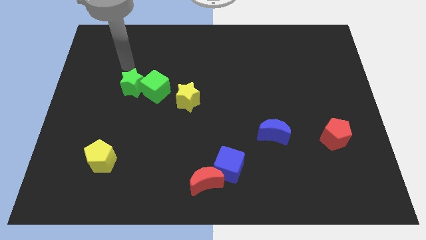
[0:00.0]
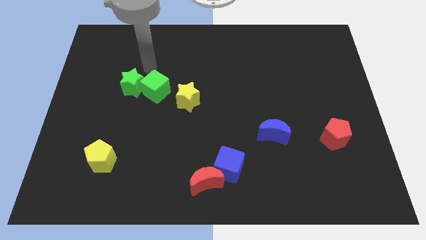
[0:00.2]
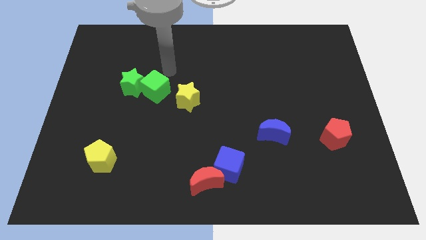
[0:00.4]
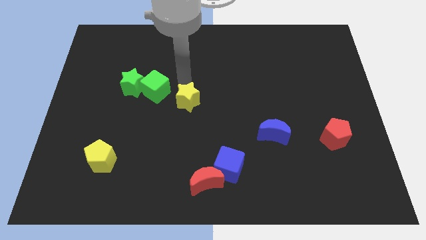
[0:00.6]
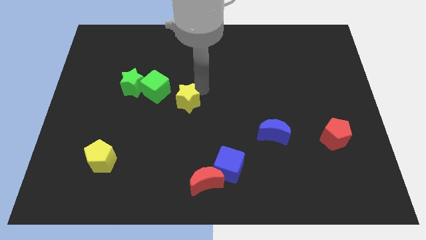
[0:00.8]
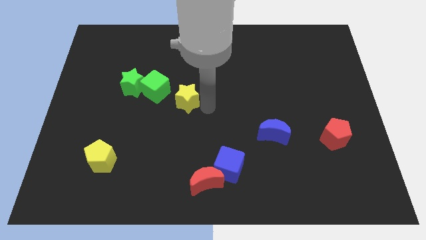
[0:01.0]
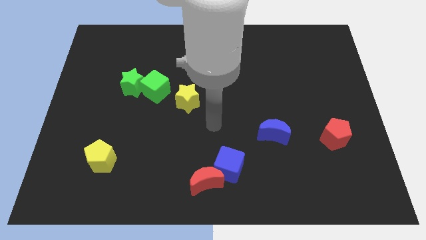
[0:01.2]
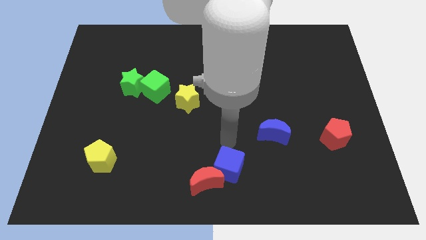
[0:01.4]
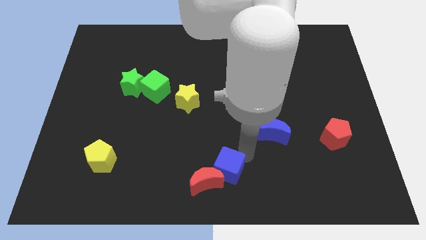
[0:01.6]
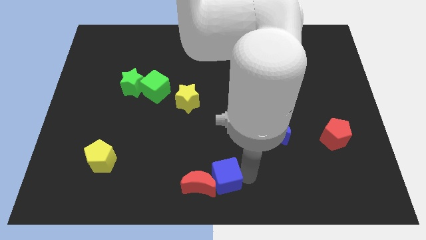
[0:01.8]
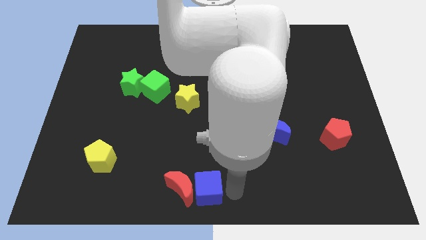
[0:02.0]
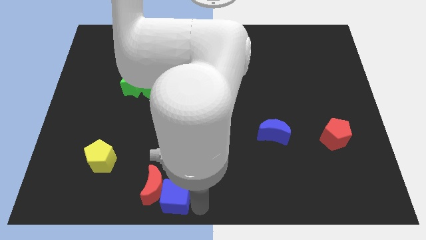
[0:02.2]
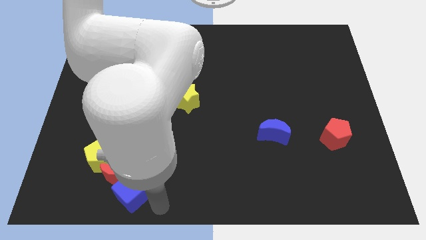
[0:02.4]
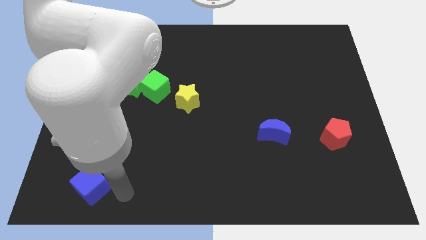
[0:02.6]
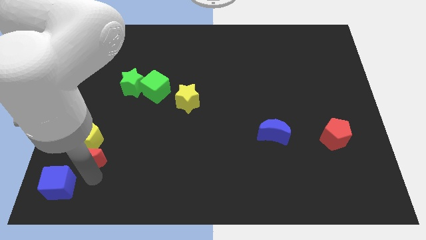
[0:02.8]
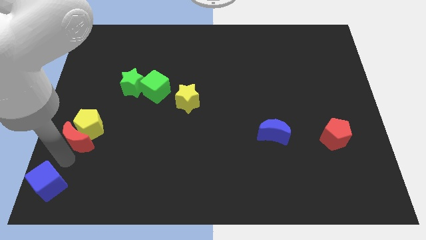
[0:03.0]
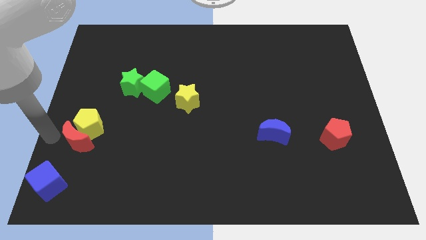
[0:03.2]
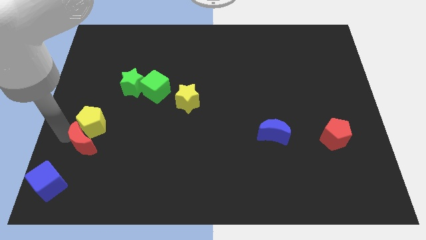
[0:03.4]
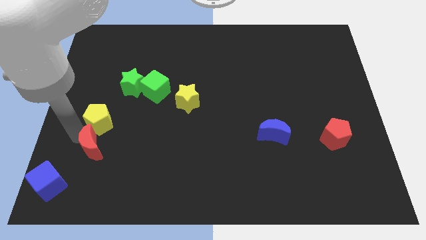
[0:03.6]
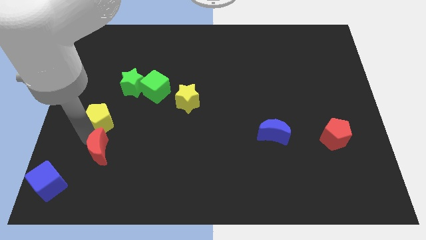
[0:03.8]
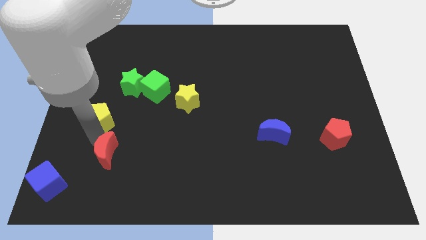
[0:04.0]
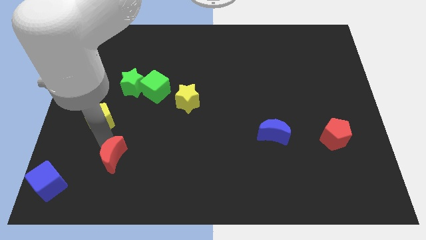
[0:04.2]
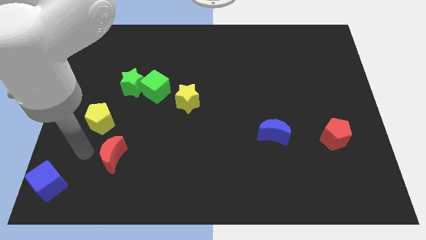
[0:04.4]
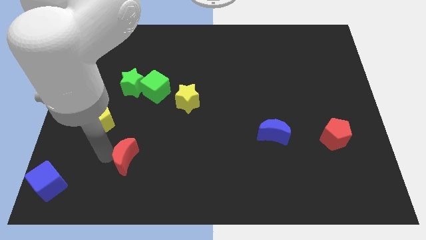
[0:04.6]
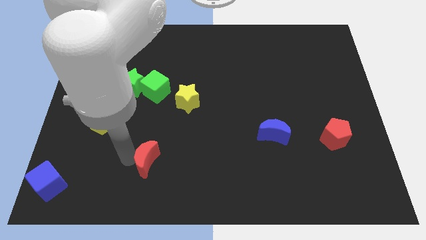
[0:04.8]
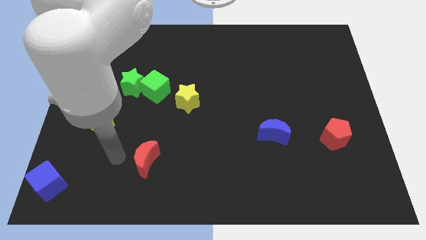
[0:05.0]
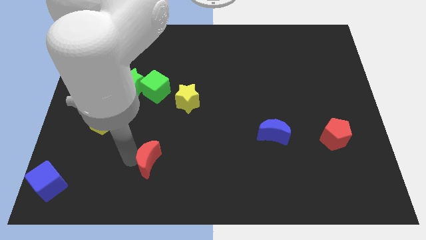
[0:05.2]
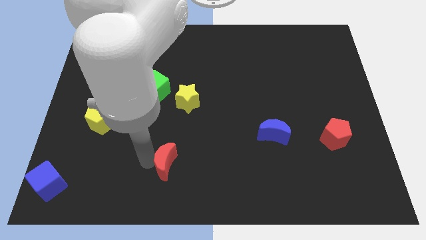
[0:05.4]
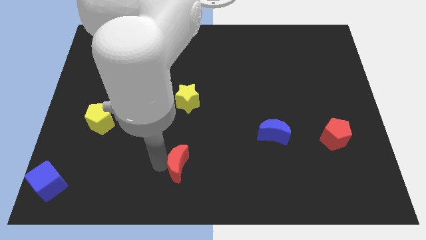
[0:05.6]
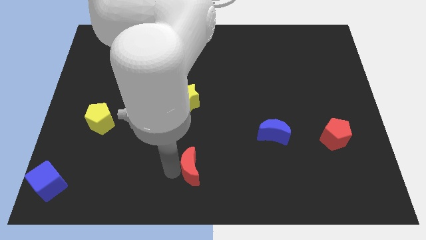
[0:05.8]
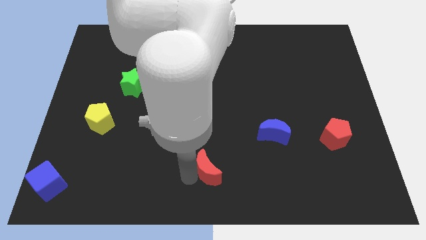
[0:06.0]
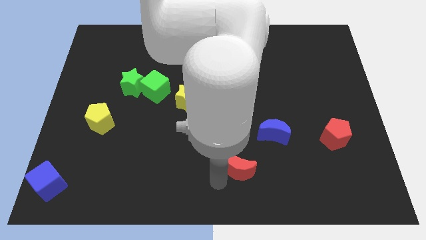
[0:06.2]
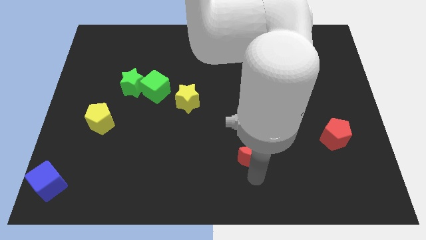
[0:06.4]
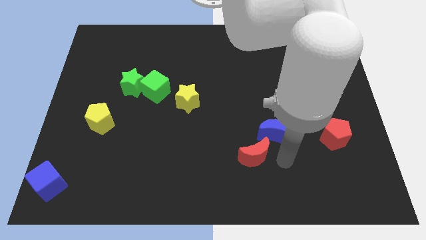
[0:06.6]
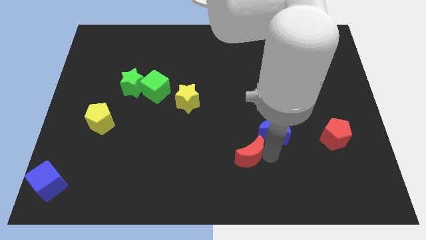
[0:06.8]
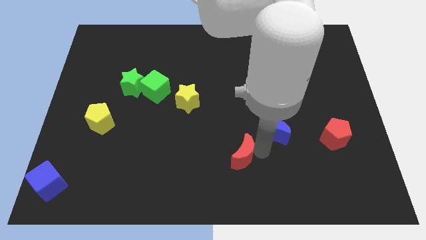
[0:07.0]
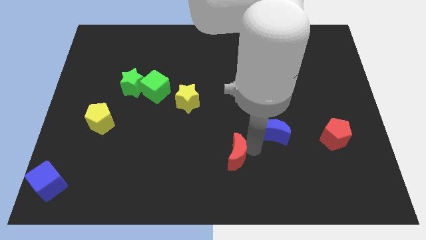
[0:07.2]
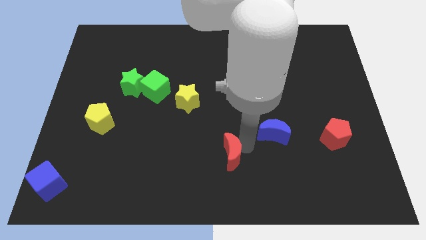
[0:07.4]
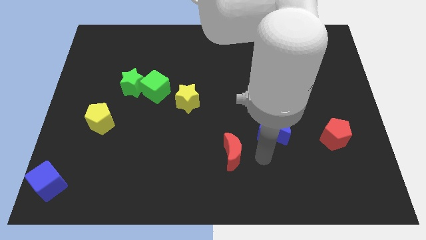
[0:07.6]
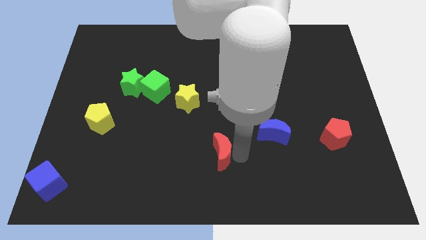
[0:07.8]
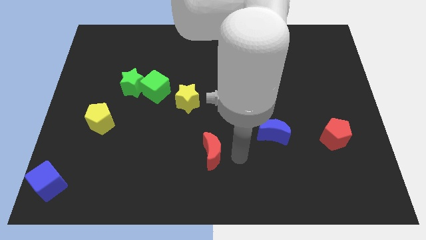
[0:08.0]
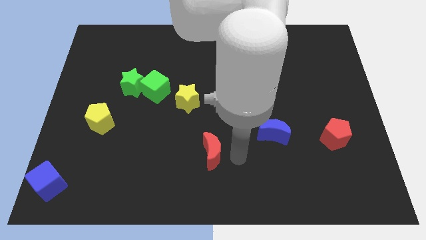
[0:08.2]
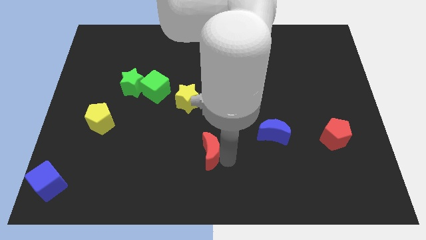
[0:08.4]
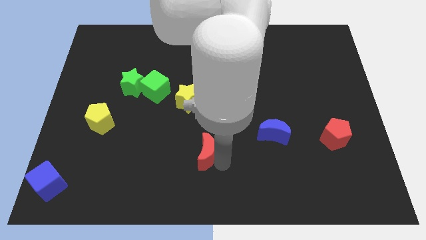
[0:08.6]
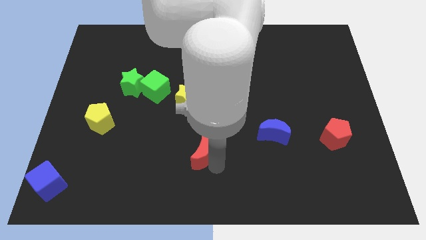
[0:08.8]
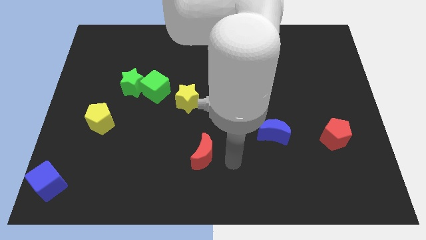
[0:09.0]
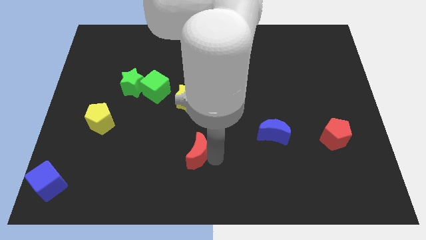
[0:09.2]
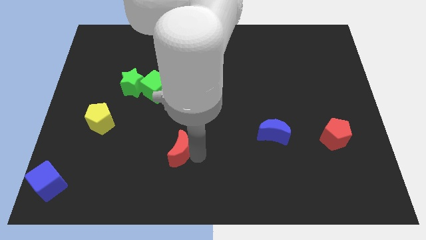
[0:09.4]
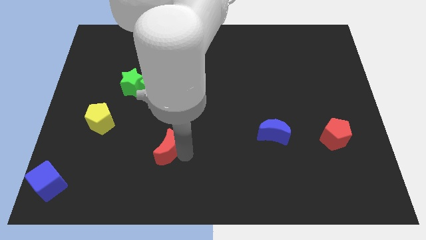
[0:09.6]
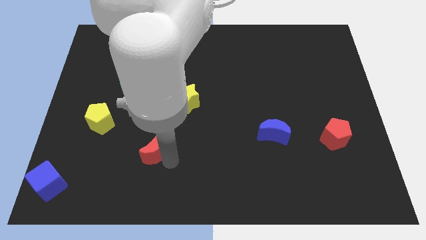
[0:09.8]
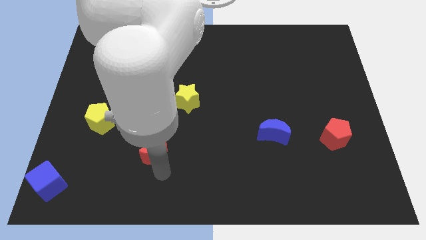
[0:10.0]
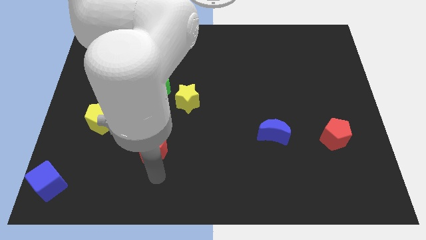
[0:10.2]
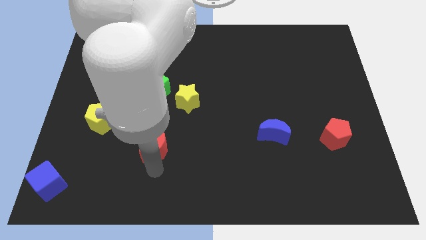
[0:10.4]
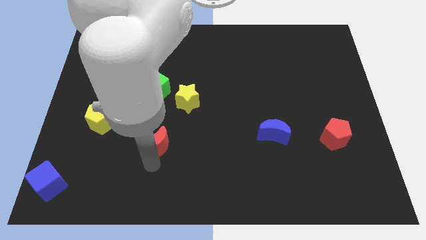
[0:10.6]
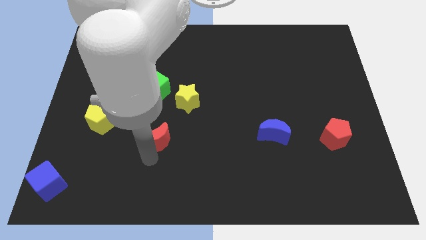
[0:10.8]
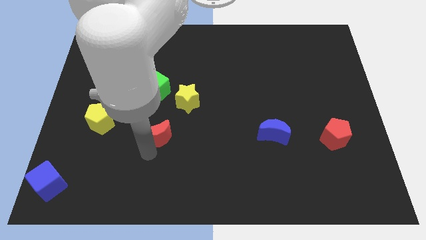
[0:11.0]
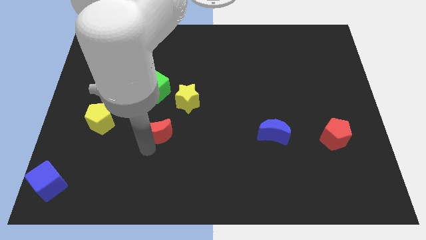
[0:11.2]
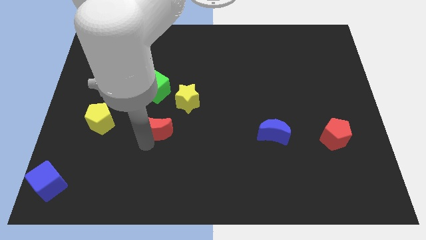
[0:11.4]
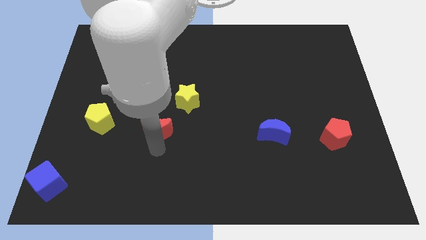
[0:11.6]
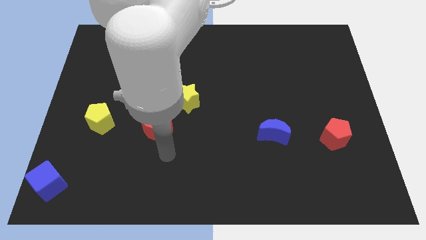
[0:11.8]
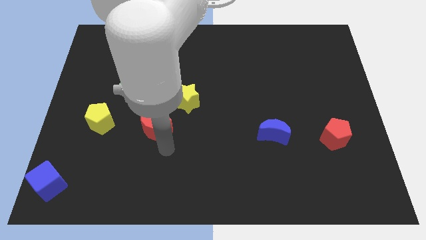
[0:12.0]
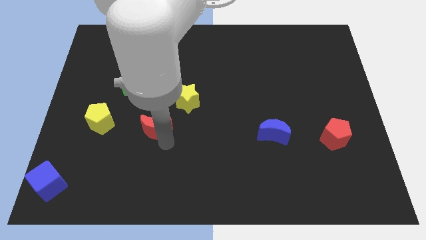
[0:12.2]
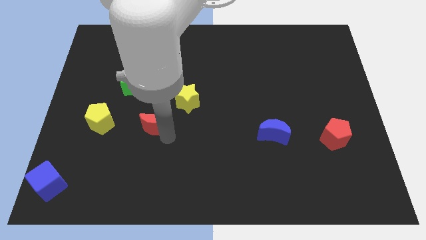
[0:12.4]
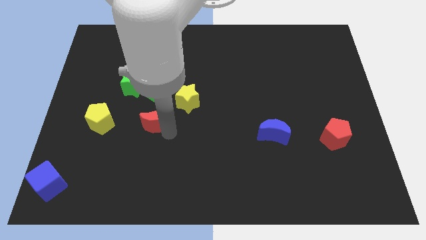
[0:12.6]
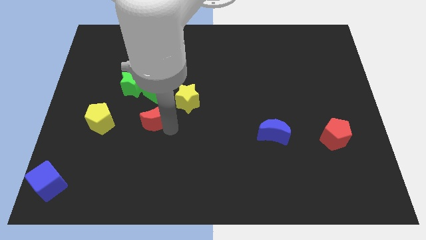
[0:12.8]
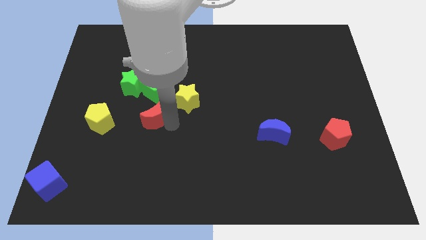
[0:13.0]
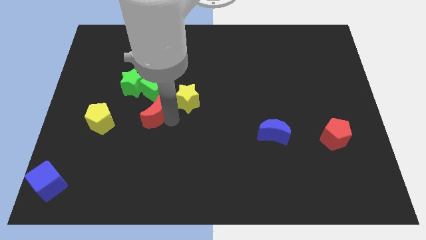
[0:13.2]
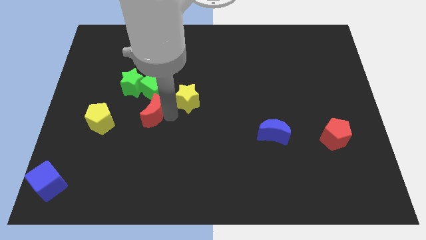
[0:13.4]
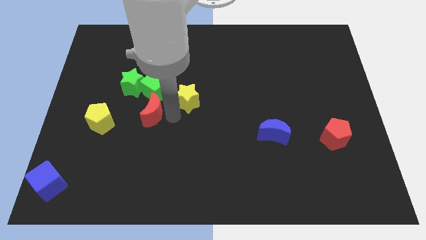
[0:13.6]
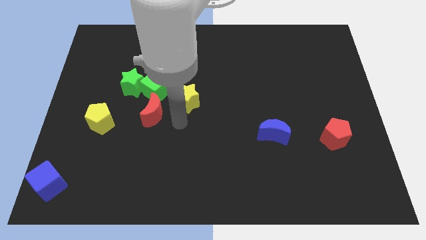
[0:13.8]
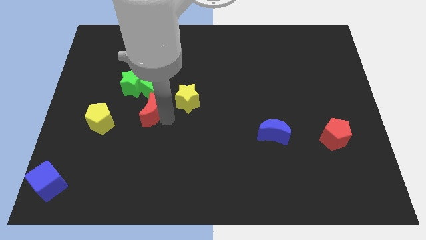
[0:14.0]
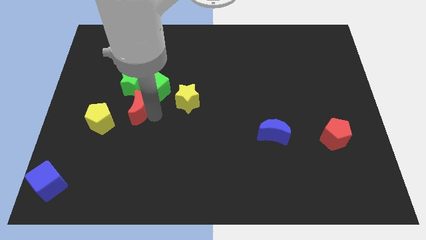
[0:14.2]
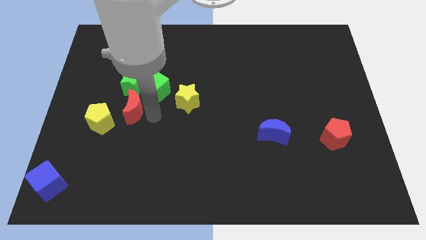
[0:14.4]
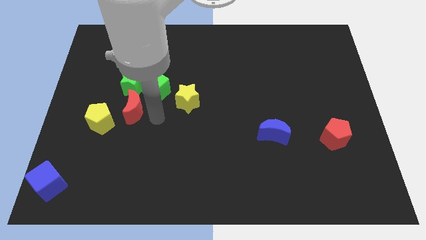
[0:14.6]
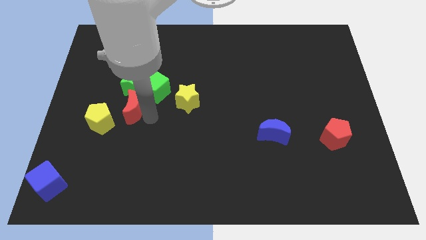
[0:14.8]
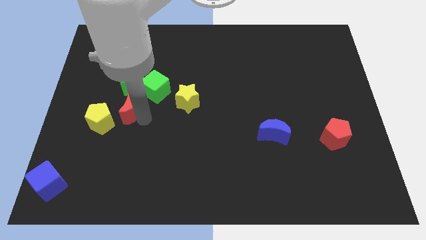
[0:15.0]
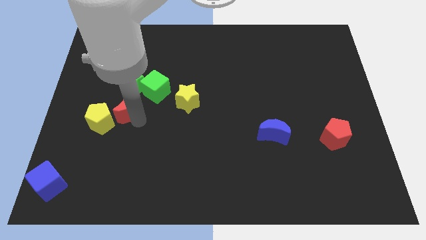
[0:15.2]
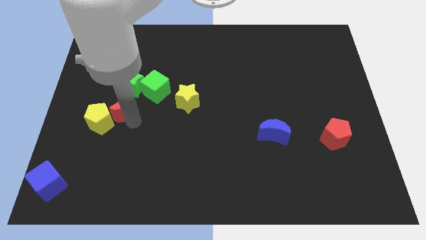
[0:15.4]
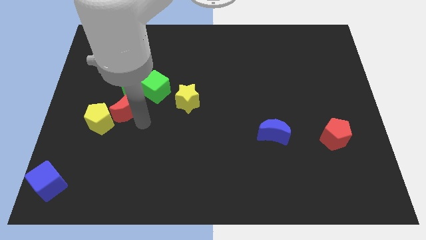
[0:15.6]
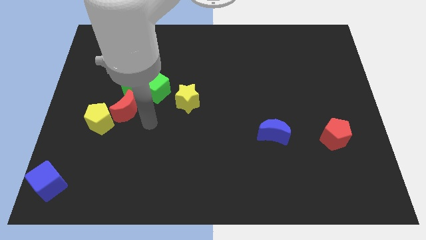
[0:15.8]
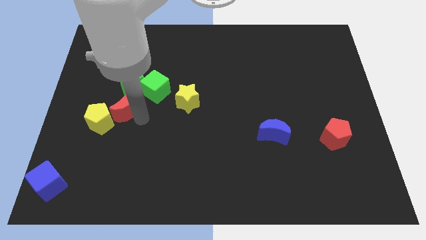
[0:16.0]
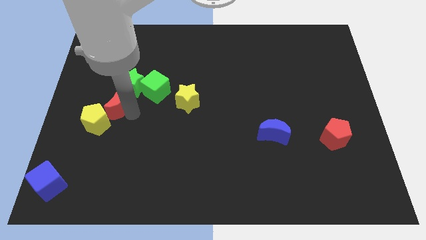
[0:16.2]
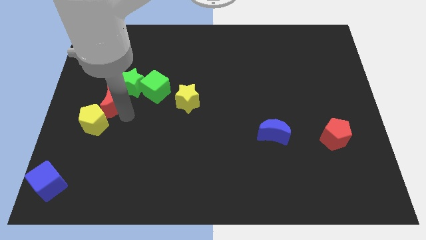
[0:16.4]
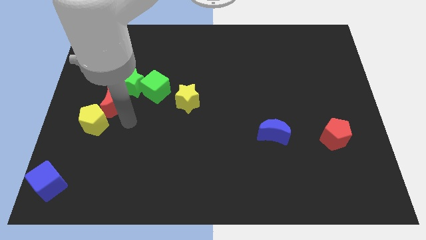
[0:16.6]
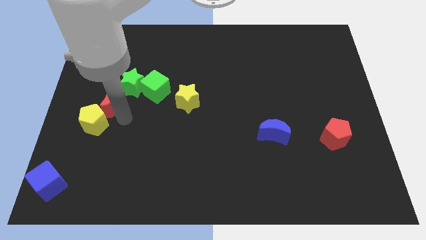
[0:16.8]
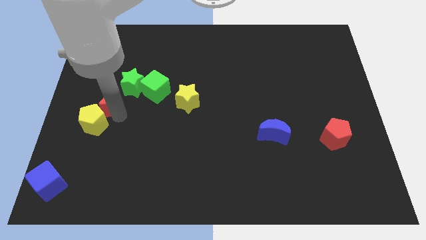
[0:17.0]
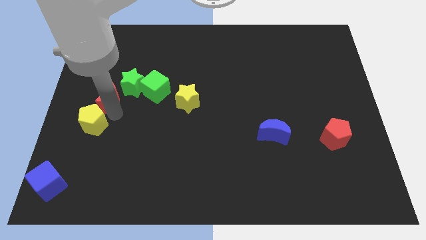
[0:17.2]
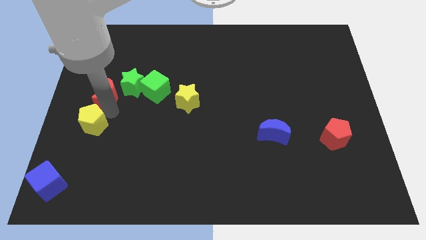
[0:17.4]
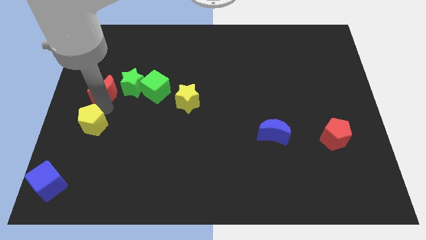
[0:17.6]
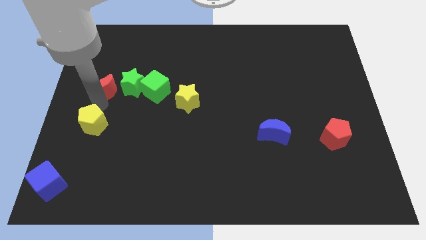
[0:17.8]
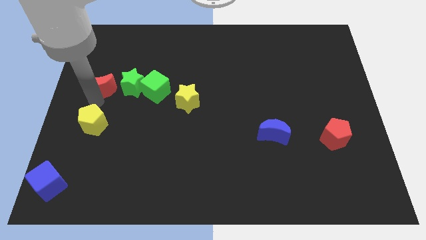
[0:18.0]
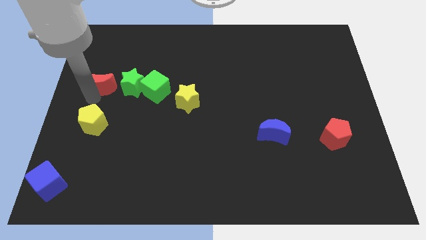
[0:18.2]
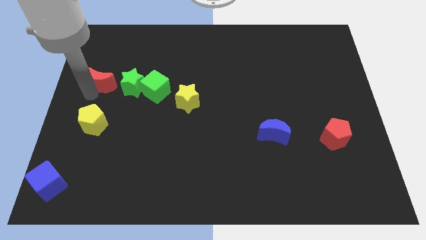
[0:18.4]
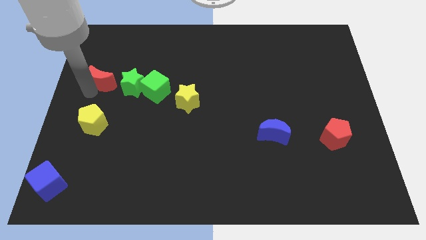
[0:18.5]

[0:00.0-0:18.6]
move the red moon to the top left of the green star
